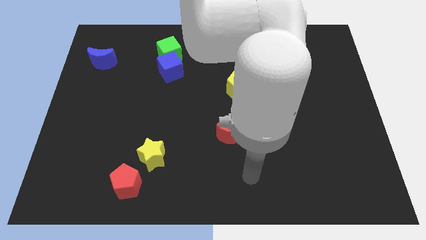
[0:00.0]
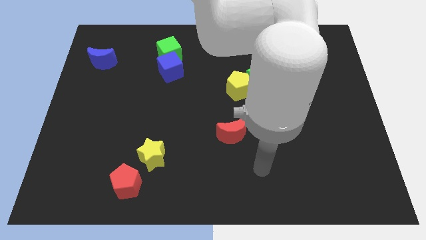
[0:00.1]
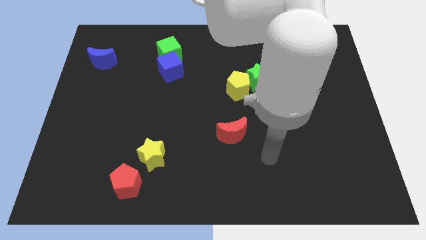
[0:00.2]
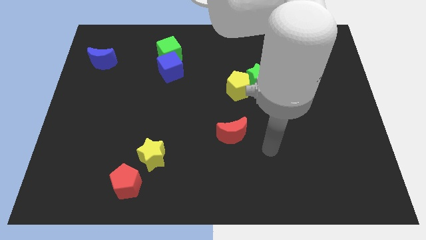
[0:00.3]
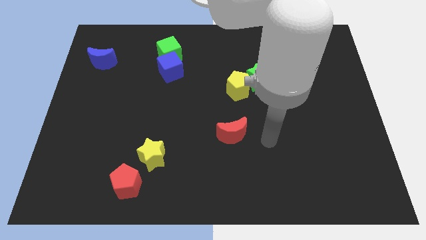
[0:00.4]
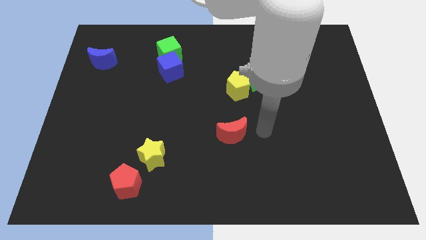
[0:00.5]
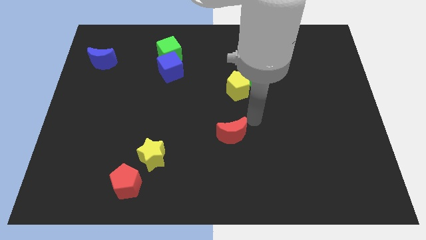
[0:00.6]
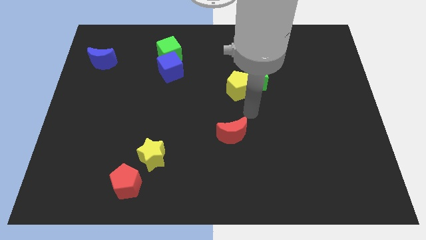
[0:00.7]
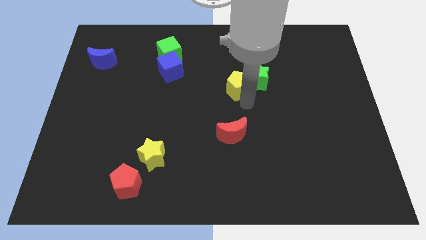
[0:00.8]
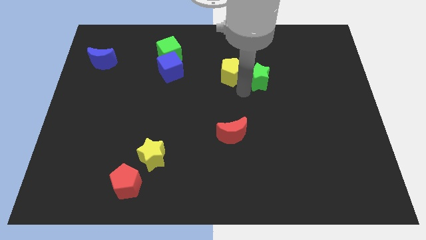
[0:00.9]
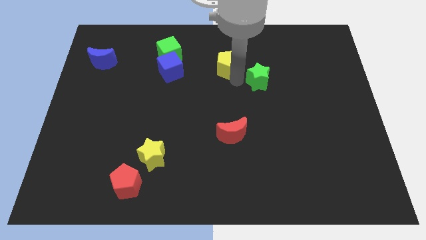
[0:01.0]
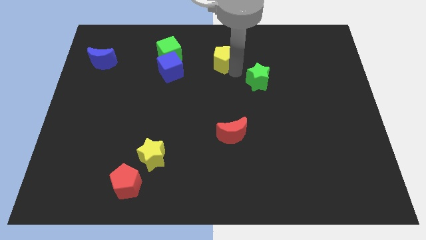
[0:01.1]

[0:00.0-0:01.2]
separate the green star from the yellow pentagon

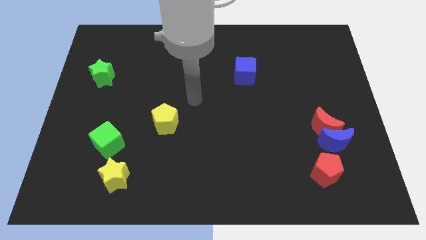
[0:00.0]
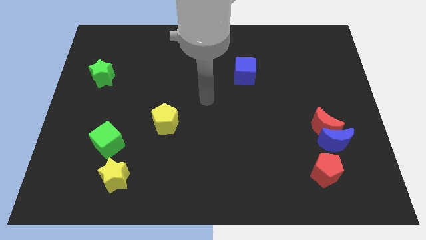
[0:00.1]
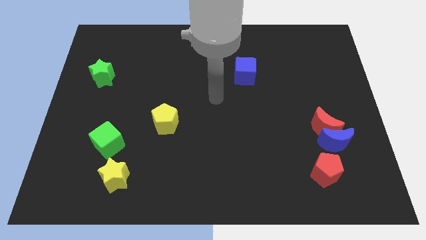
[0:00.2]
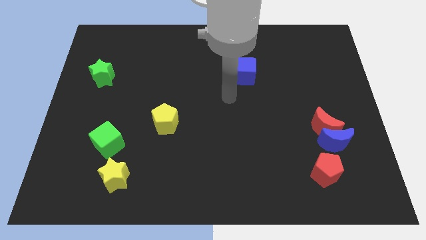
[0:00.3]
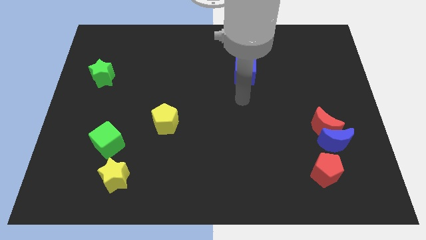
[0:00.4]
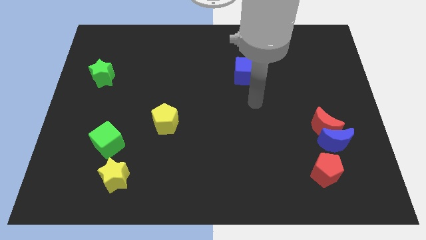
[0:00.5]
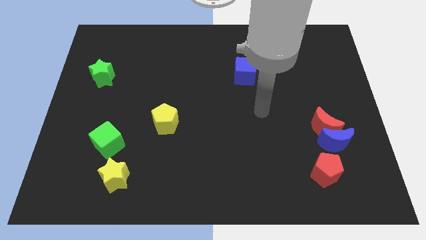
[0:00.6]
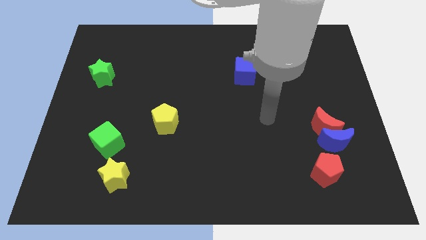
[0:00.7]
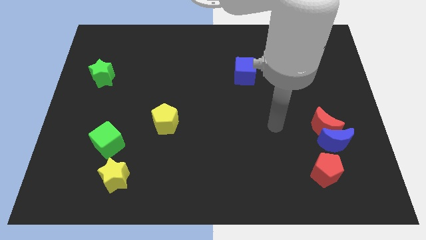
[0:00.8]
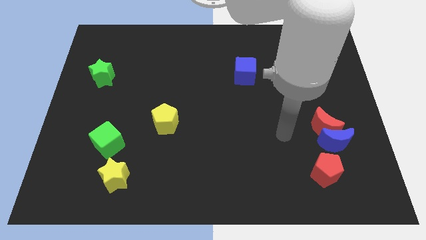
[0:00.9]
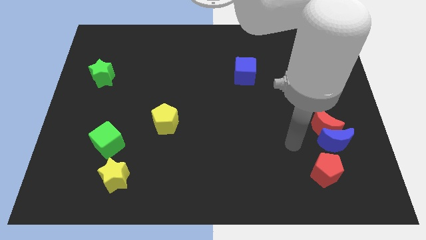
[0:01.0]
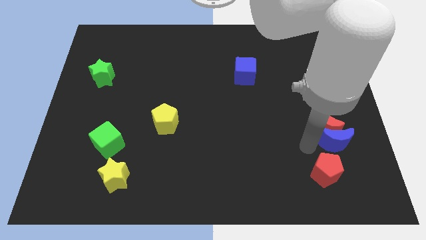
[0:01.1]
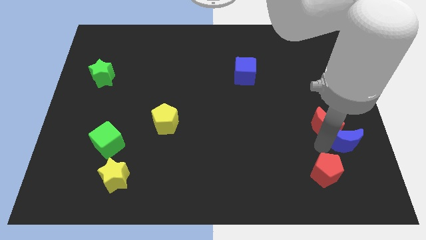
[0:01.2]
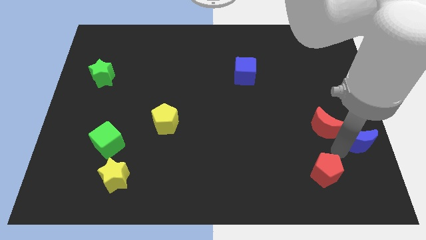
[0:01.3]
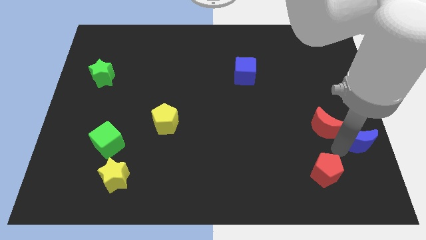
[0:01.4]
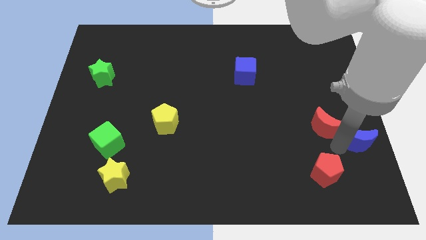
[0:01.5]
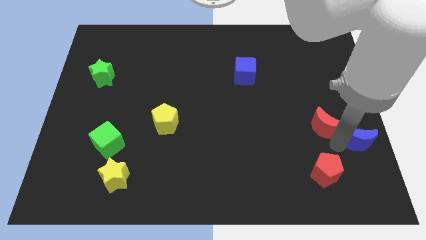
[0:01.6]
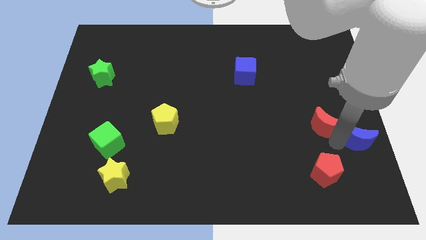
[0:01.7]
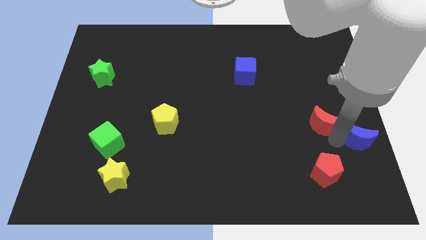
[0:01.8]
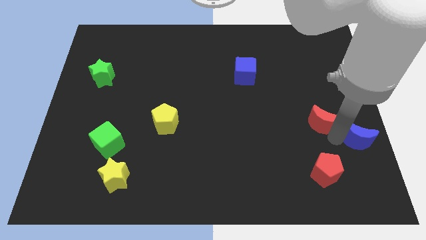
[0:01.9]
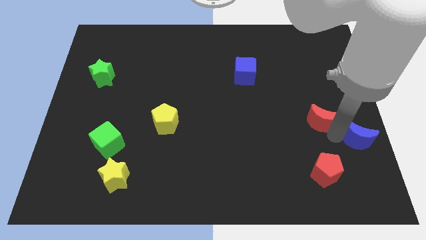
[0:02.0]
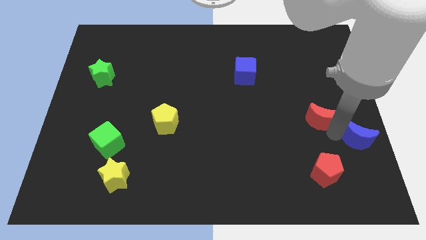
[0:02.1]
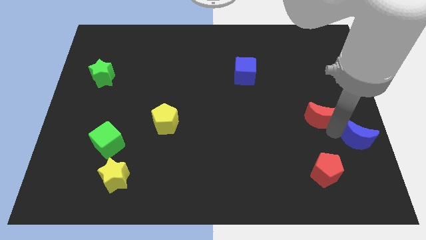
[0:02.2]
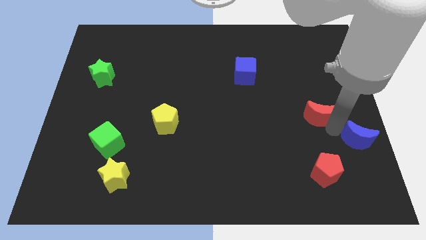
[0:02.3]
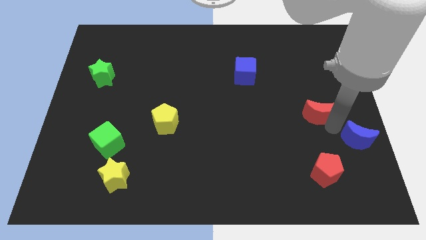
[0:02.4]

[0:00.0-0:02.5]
pull the red moon apart from the blue moon

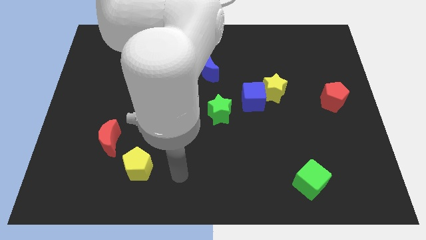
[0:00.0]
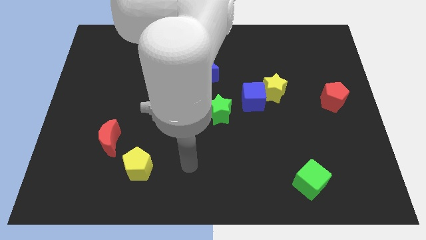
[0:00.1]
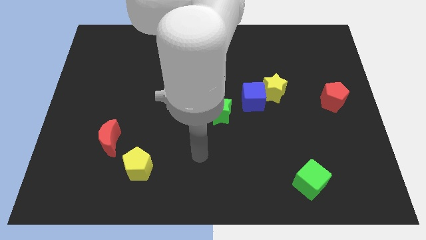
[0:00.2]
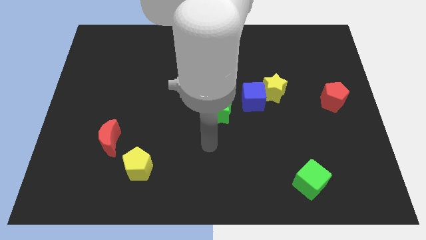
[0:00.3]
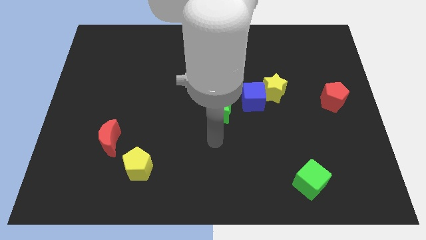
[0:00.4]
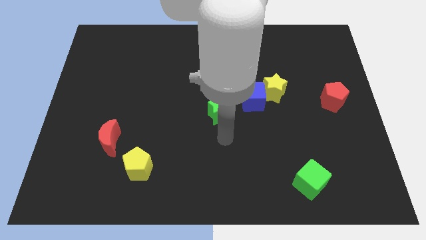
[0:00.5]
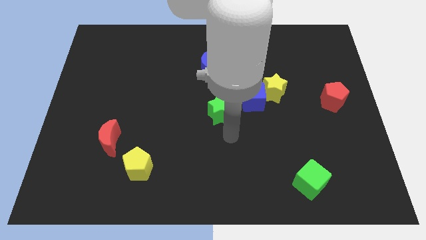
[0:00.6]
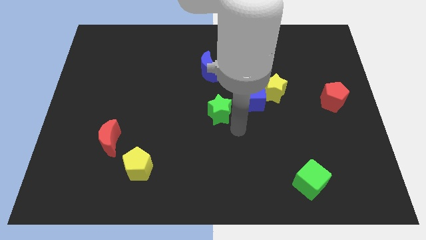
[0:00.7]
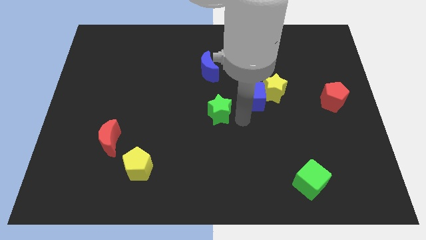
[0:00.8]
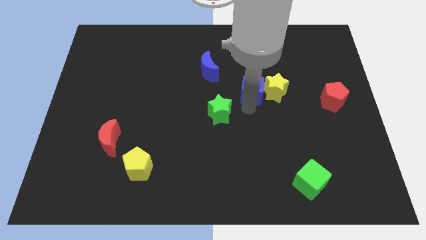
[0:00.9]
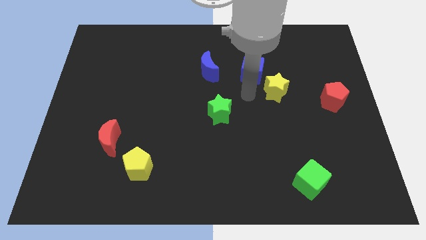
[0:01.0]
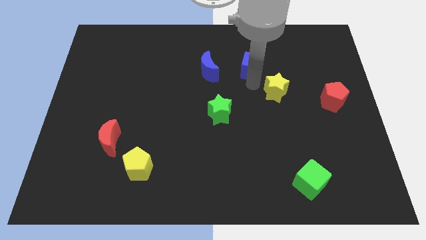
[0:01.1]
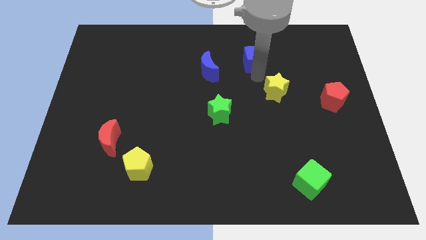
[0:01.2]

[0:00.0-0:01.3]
move the yellow star away from the blue cube

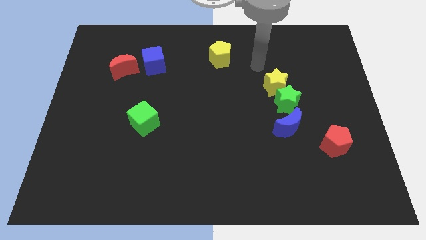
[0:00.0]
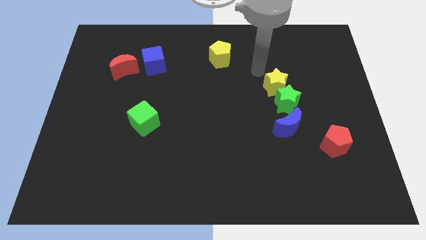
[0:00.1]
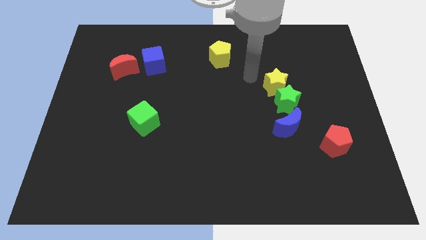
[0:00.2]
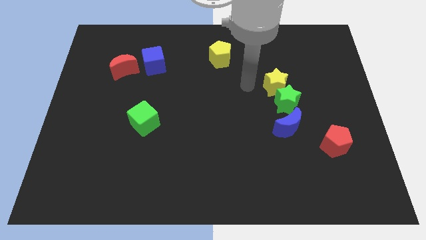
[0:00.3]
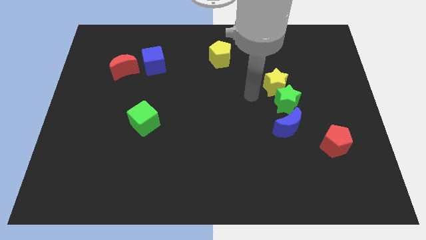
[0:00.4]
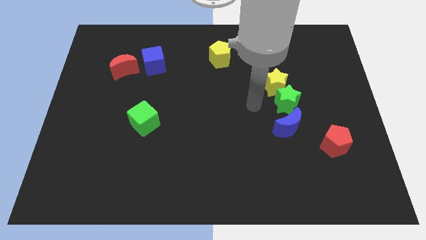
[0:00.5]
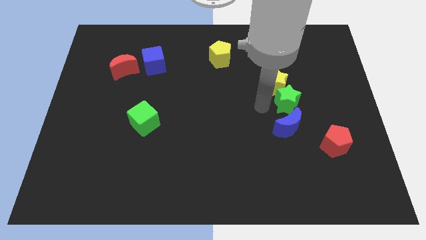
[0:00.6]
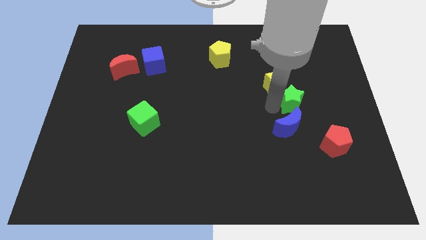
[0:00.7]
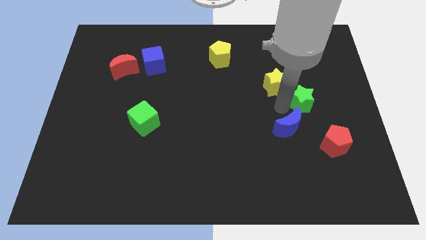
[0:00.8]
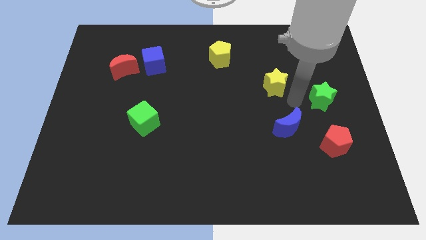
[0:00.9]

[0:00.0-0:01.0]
pull the yellow star apart from the green star

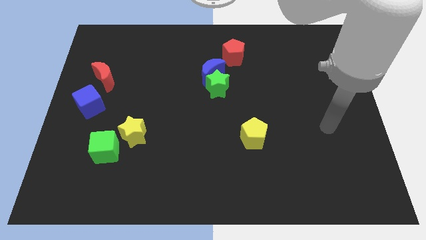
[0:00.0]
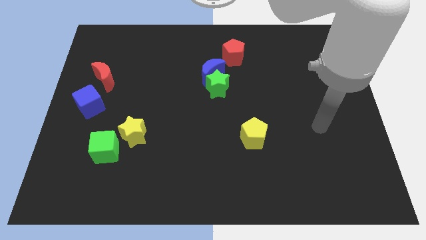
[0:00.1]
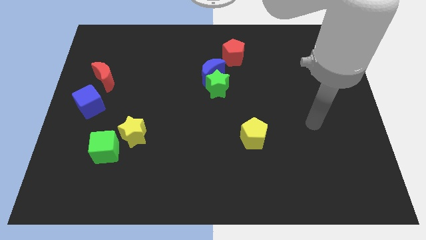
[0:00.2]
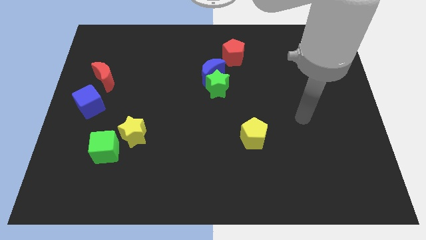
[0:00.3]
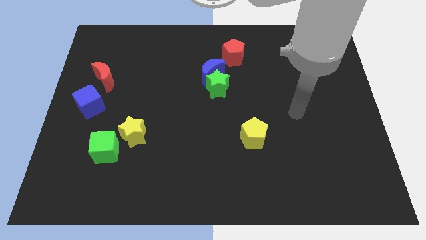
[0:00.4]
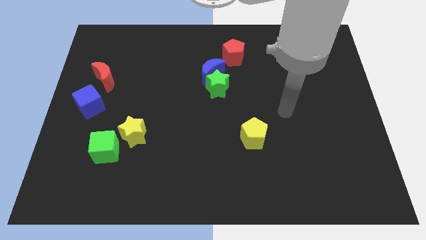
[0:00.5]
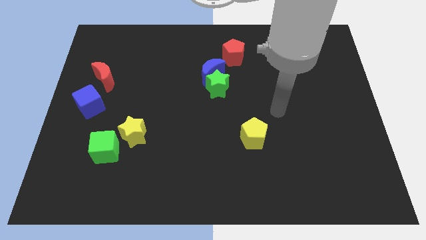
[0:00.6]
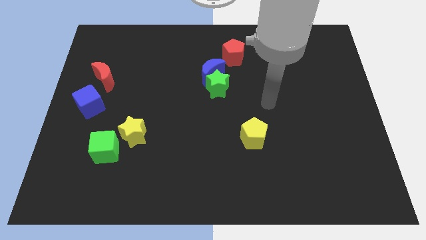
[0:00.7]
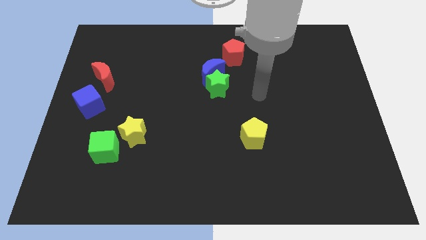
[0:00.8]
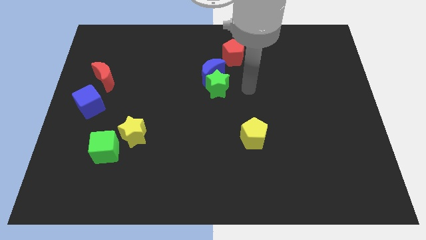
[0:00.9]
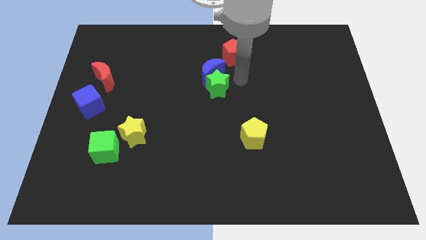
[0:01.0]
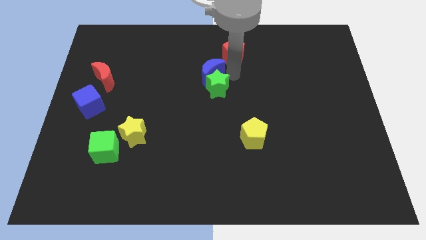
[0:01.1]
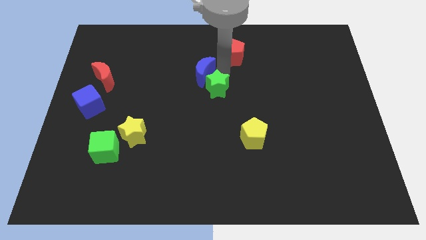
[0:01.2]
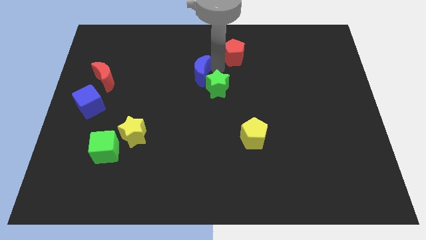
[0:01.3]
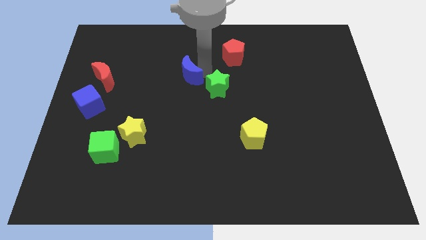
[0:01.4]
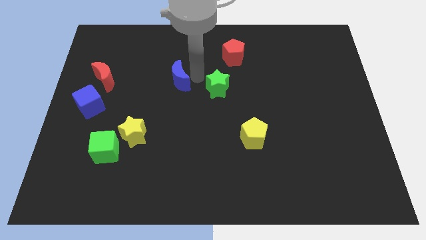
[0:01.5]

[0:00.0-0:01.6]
move the green star away from the blue moon

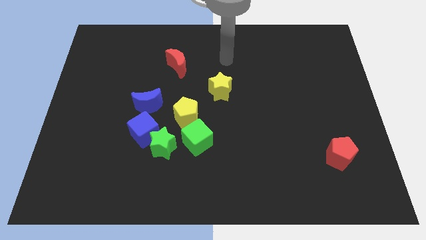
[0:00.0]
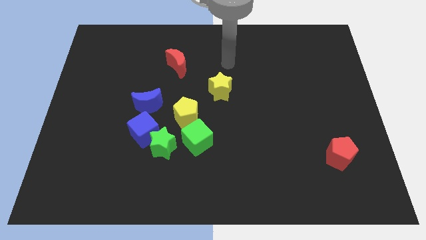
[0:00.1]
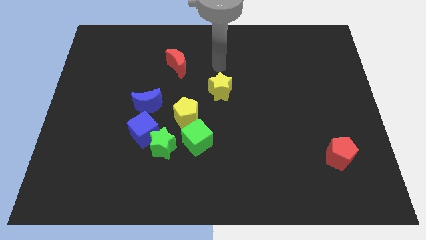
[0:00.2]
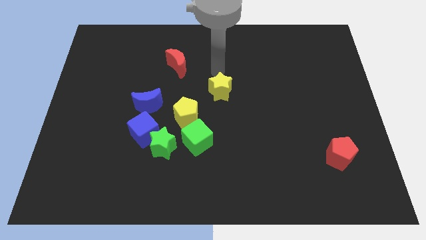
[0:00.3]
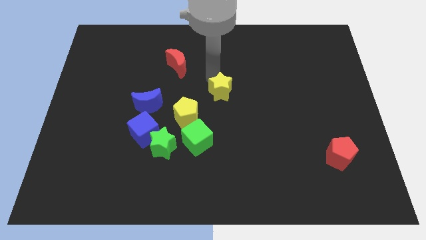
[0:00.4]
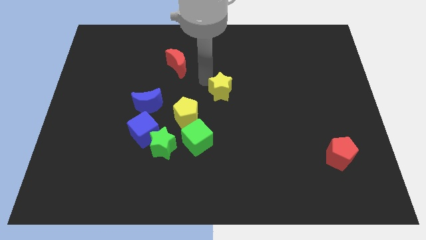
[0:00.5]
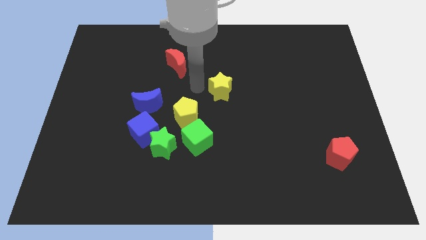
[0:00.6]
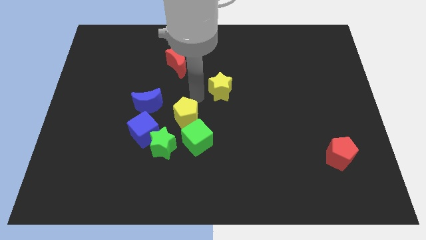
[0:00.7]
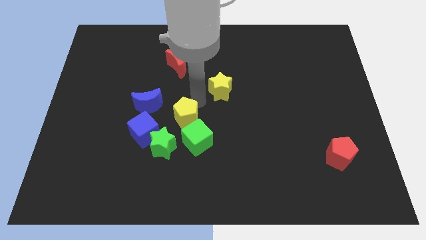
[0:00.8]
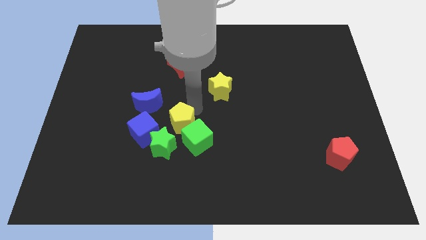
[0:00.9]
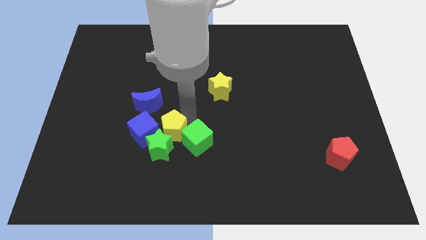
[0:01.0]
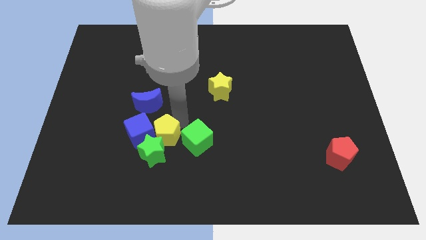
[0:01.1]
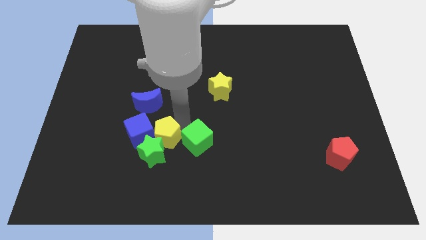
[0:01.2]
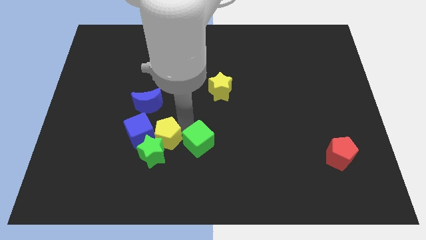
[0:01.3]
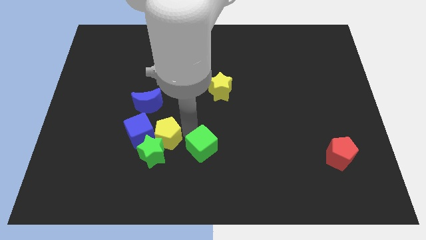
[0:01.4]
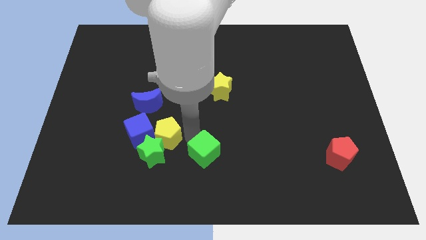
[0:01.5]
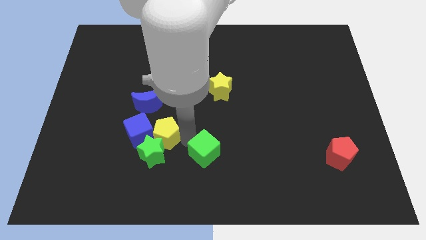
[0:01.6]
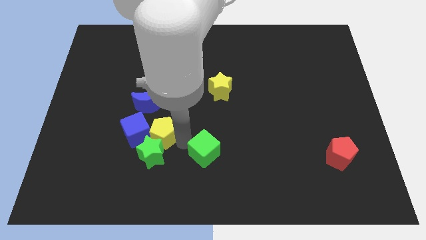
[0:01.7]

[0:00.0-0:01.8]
pull the green cube apart from the yellow pentagon and green star
